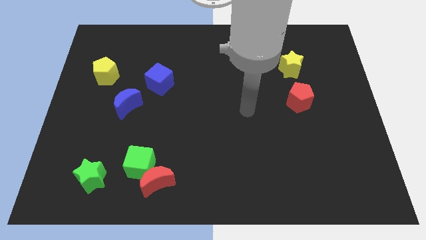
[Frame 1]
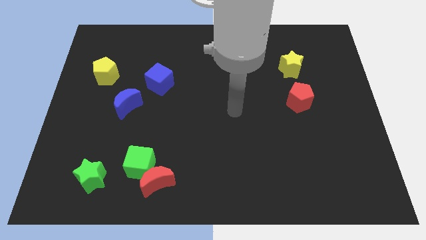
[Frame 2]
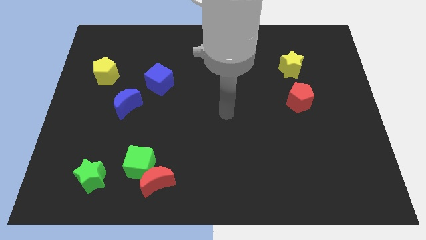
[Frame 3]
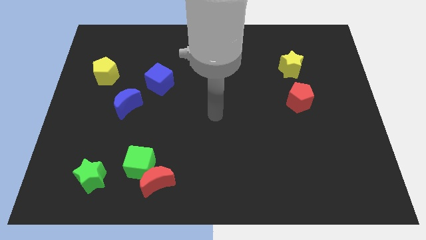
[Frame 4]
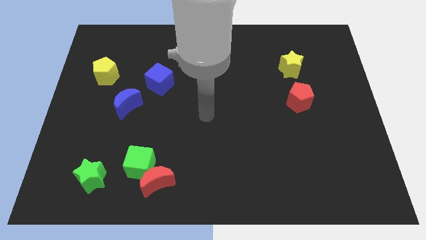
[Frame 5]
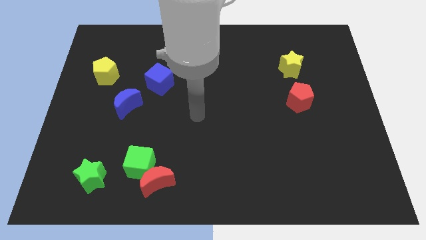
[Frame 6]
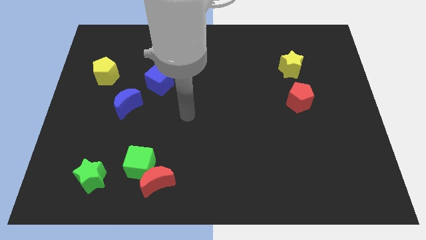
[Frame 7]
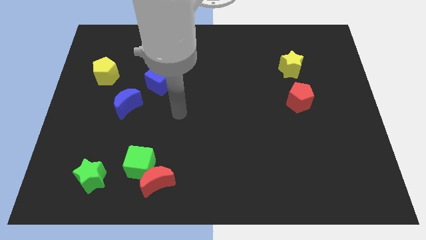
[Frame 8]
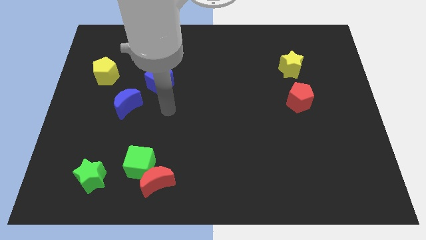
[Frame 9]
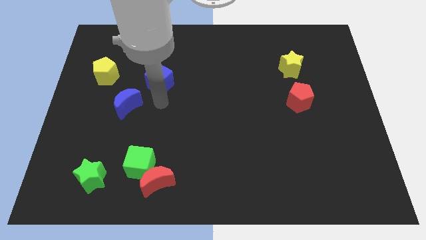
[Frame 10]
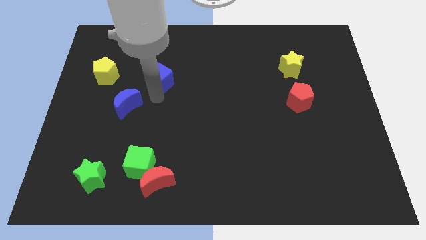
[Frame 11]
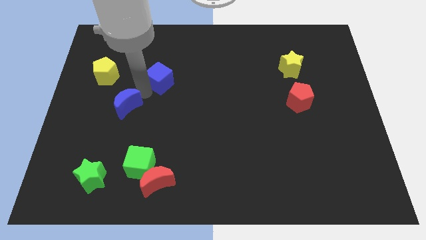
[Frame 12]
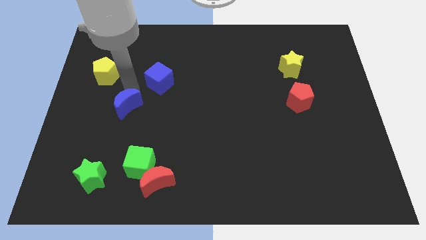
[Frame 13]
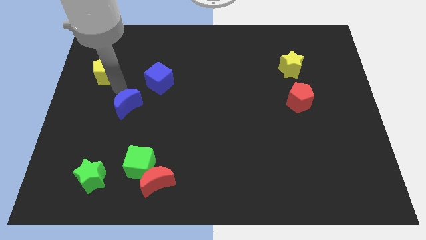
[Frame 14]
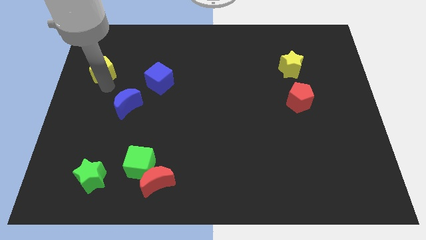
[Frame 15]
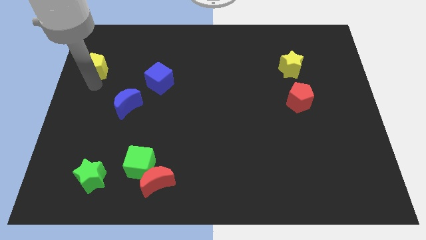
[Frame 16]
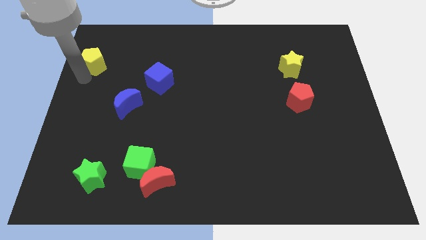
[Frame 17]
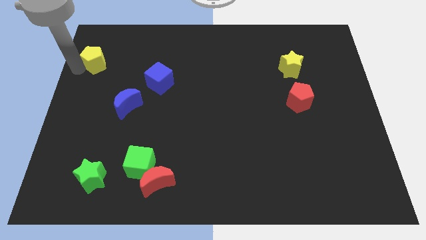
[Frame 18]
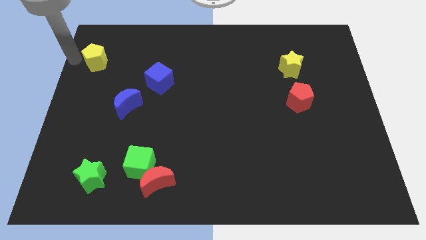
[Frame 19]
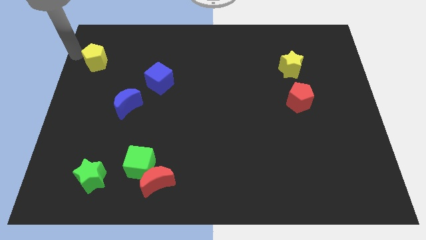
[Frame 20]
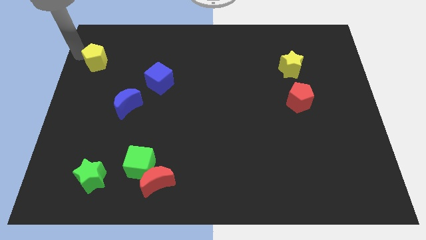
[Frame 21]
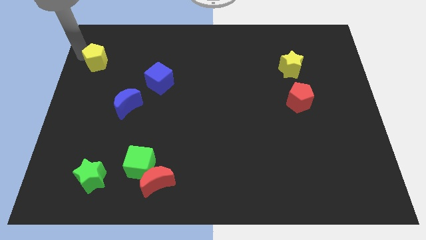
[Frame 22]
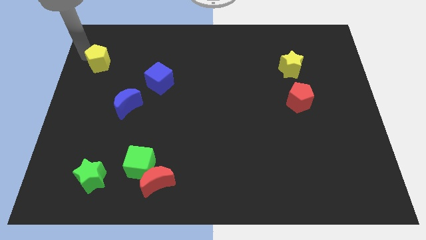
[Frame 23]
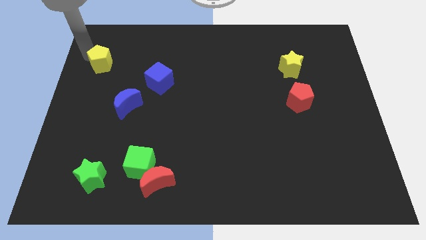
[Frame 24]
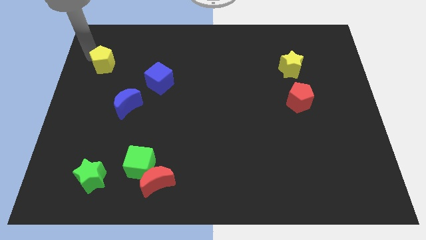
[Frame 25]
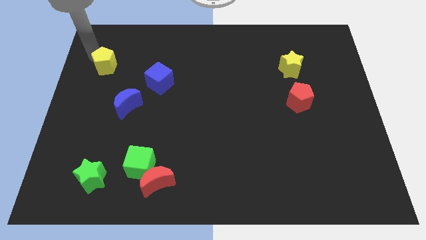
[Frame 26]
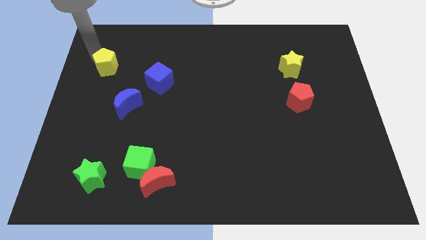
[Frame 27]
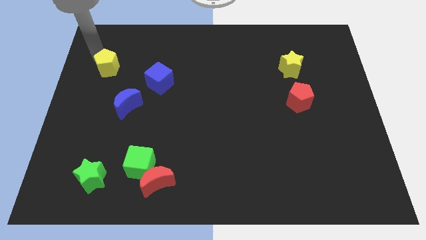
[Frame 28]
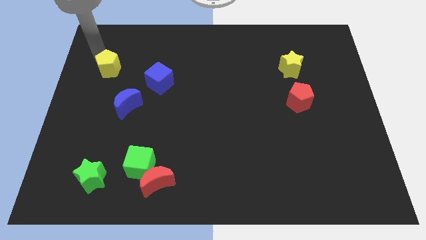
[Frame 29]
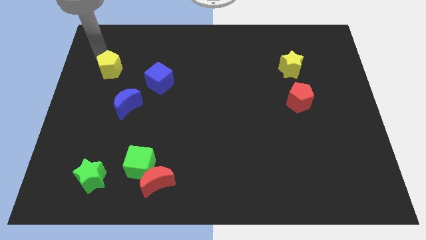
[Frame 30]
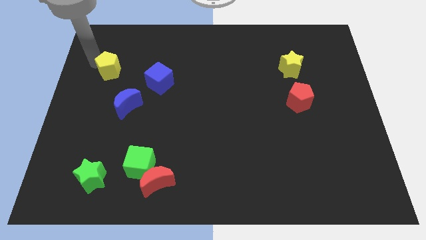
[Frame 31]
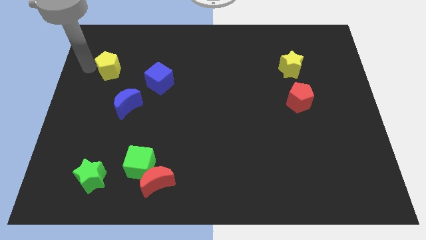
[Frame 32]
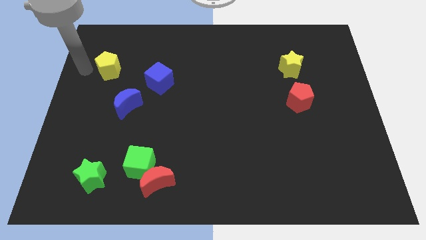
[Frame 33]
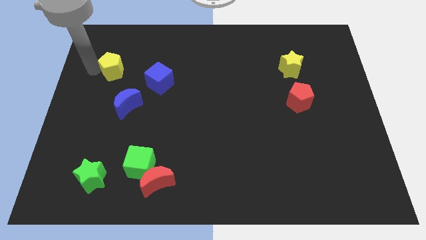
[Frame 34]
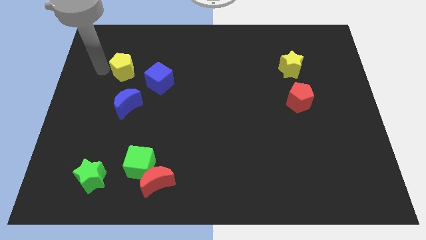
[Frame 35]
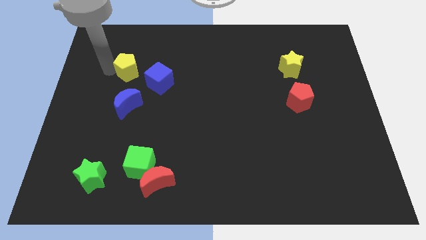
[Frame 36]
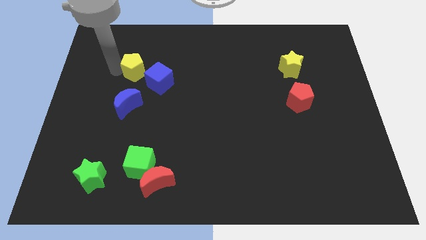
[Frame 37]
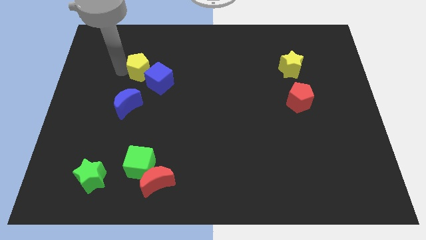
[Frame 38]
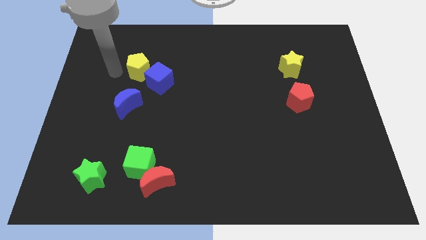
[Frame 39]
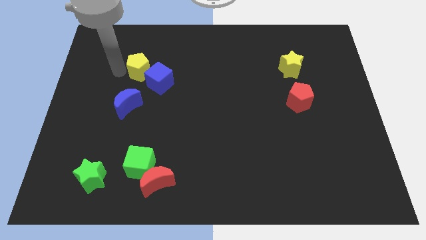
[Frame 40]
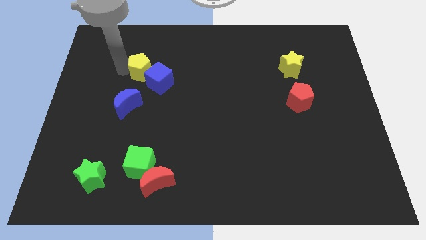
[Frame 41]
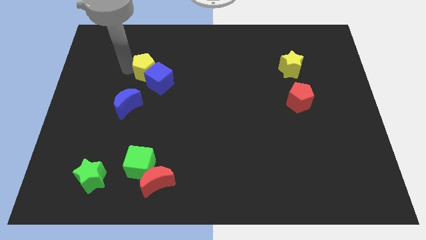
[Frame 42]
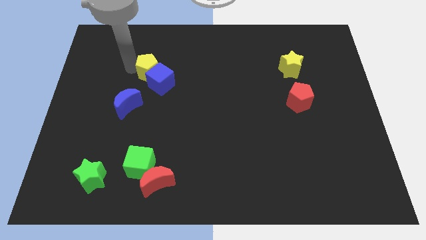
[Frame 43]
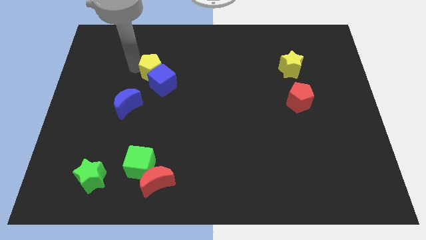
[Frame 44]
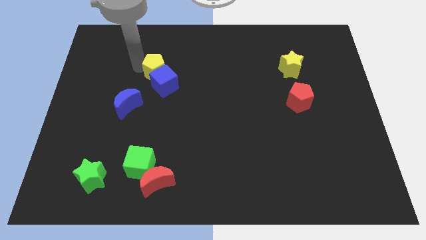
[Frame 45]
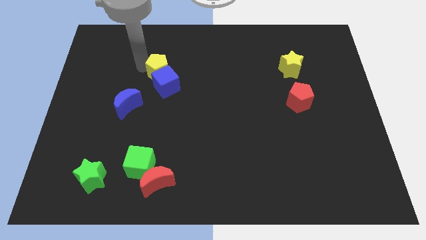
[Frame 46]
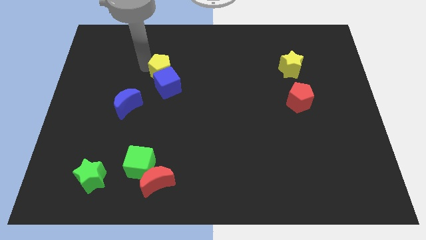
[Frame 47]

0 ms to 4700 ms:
slide the yellow pentagon diagonally up and to the right of the blue cube

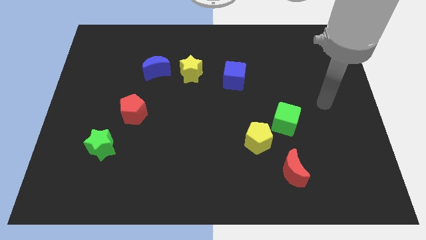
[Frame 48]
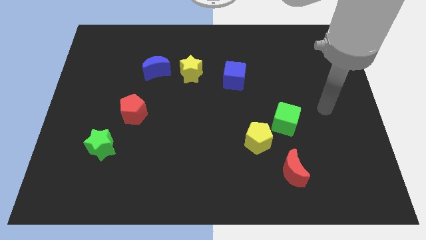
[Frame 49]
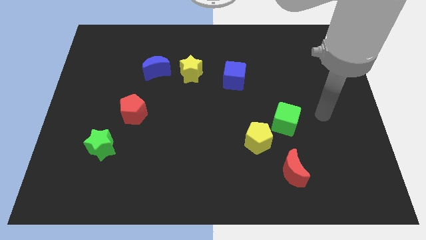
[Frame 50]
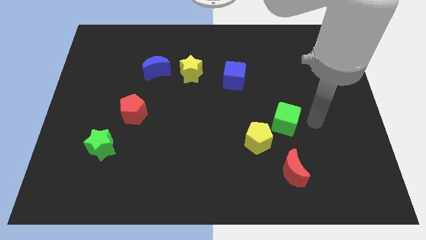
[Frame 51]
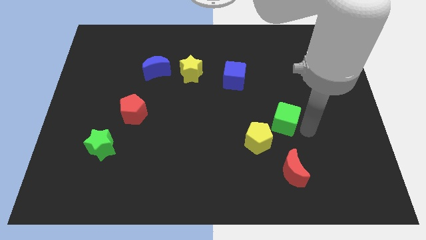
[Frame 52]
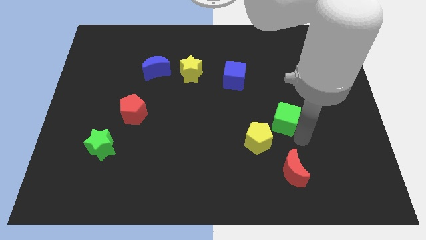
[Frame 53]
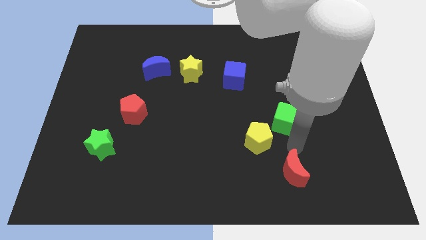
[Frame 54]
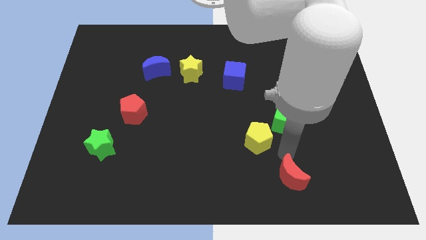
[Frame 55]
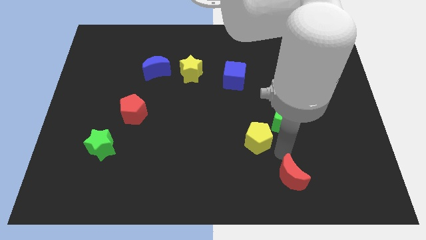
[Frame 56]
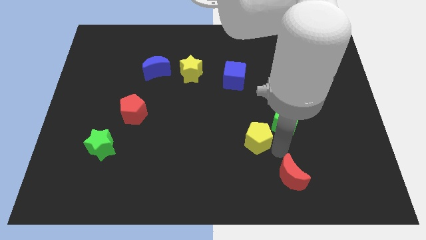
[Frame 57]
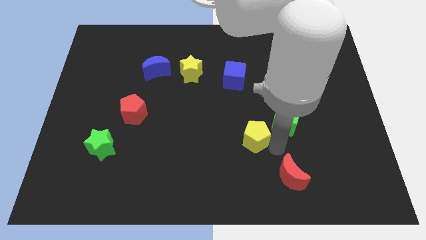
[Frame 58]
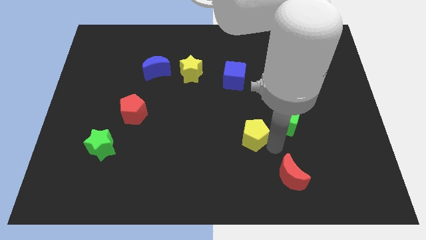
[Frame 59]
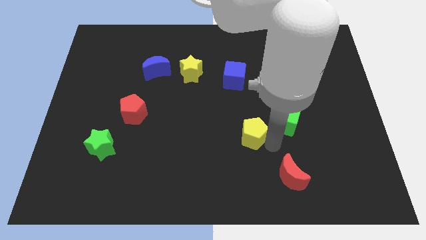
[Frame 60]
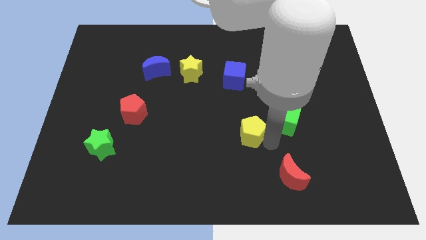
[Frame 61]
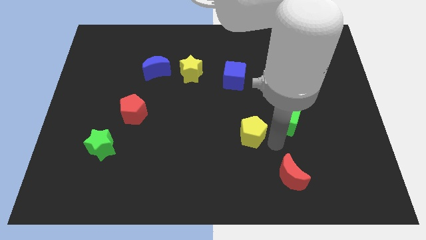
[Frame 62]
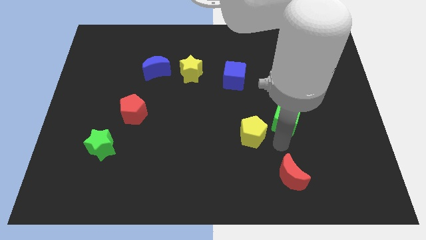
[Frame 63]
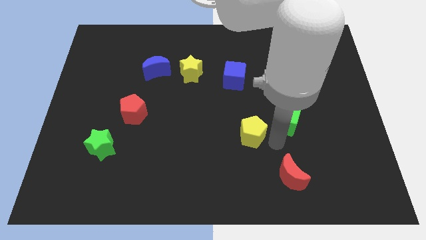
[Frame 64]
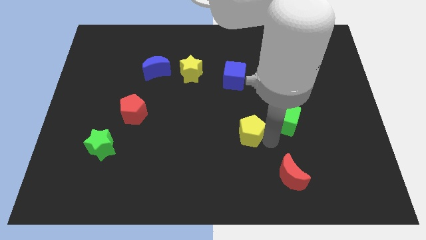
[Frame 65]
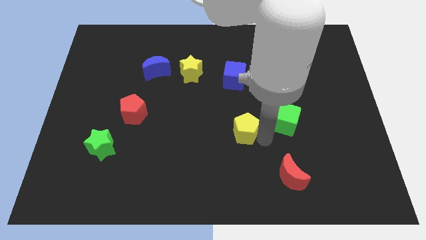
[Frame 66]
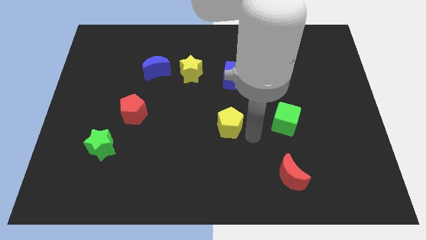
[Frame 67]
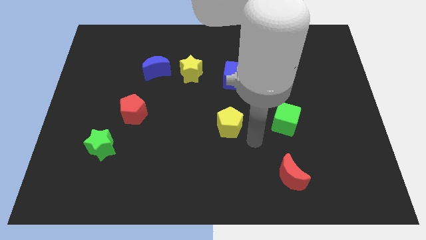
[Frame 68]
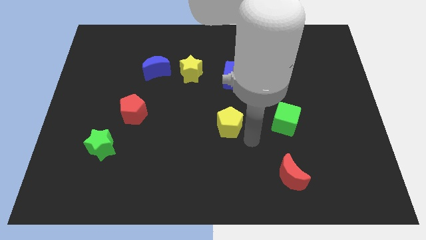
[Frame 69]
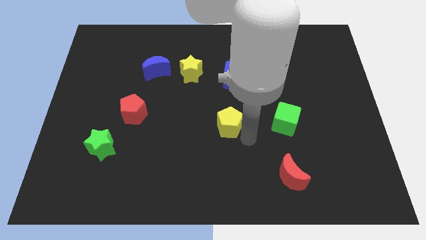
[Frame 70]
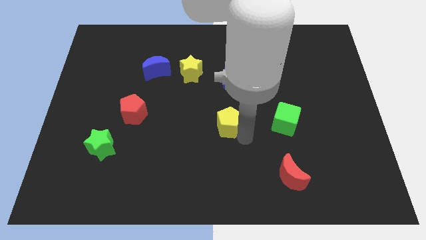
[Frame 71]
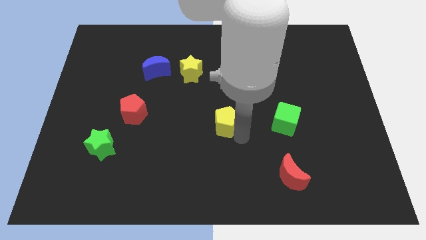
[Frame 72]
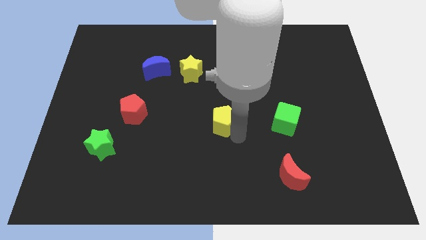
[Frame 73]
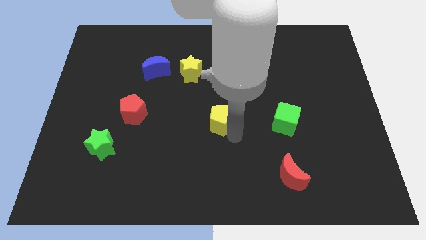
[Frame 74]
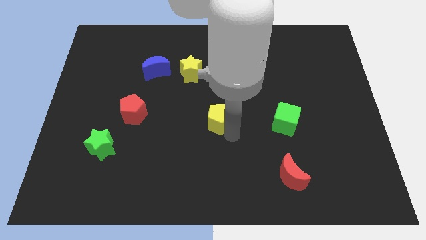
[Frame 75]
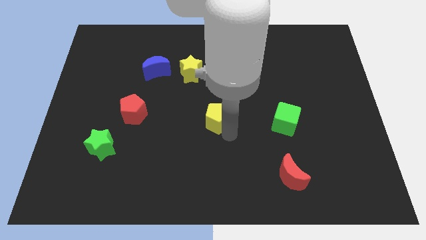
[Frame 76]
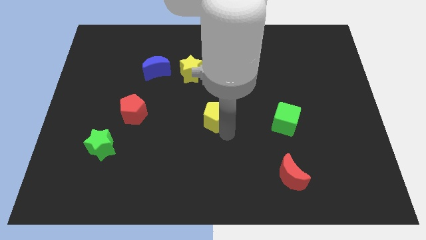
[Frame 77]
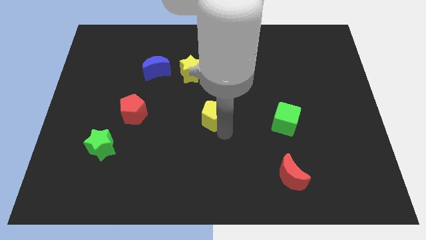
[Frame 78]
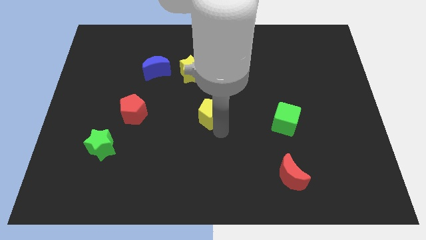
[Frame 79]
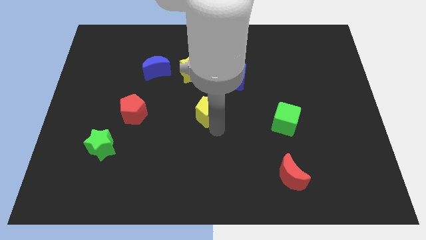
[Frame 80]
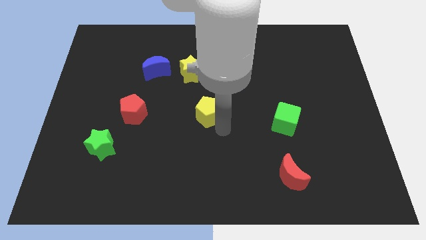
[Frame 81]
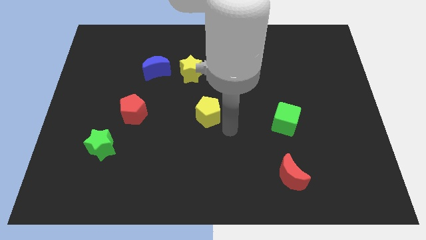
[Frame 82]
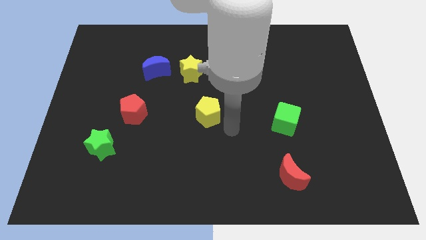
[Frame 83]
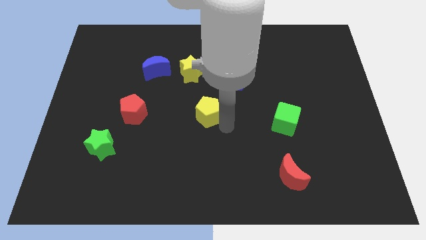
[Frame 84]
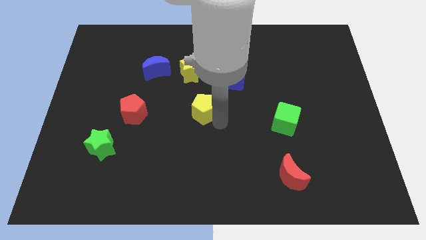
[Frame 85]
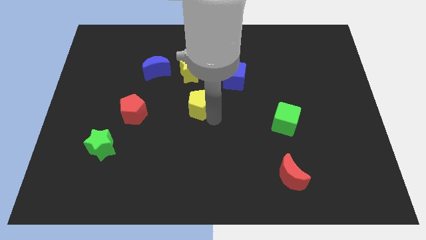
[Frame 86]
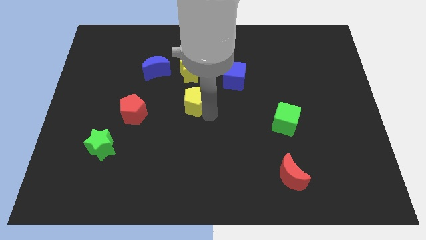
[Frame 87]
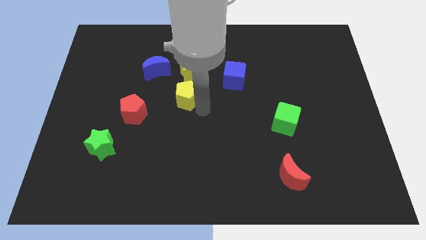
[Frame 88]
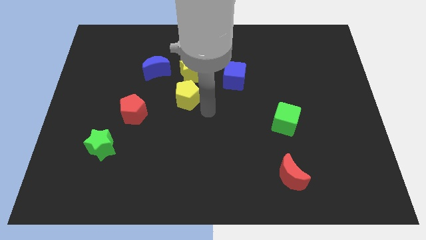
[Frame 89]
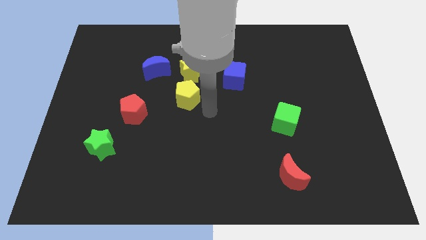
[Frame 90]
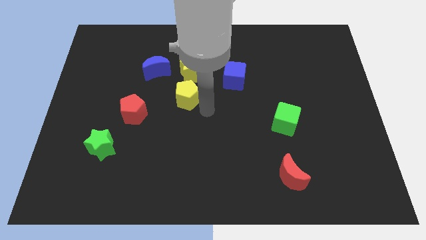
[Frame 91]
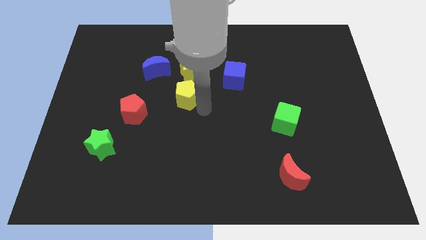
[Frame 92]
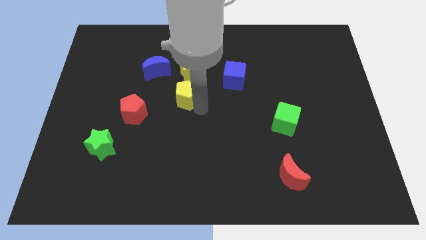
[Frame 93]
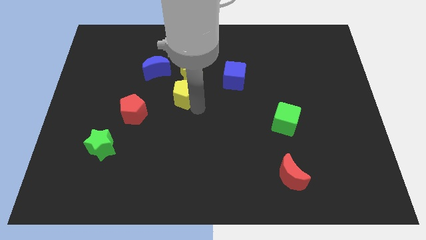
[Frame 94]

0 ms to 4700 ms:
move the yellow pentagon to the bottom left of the yellow star
